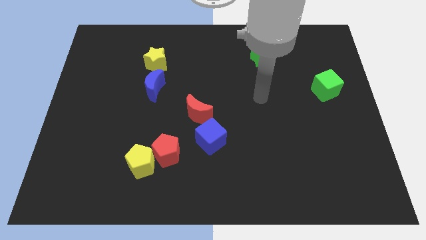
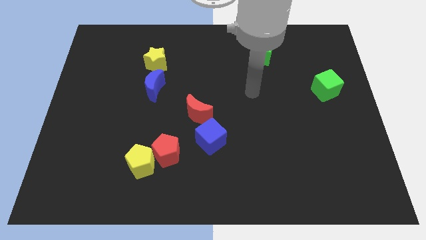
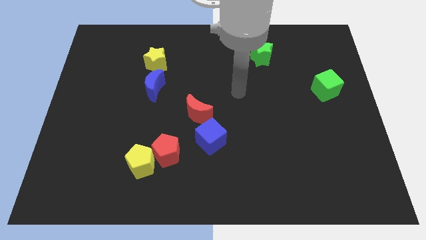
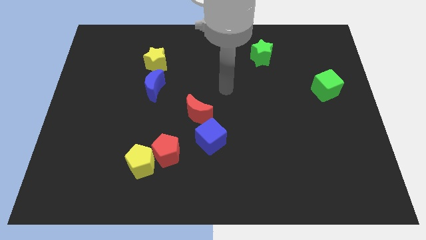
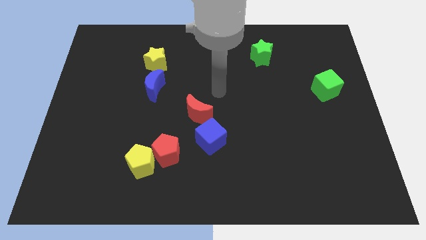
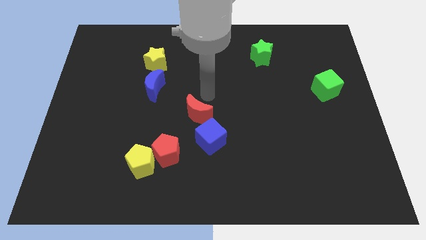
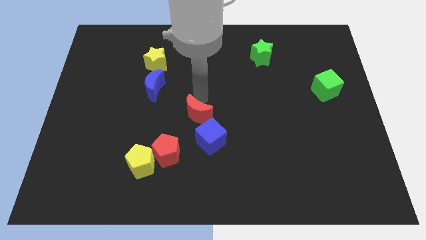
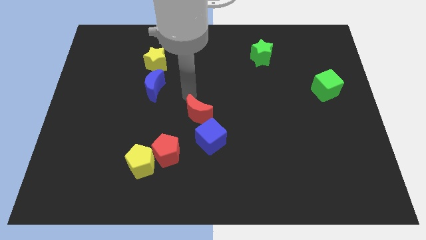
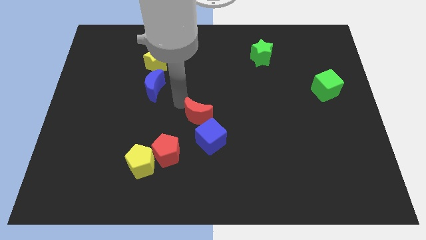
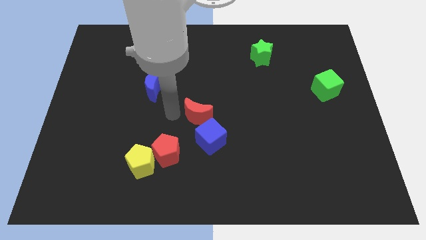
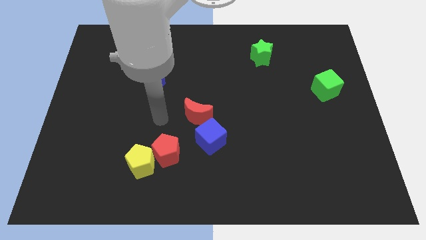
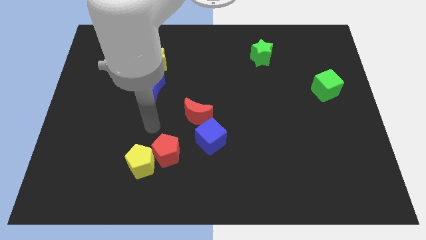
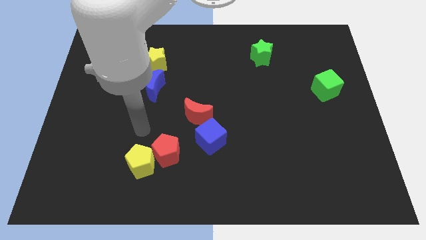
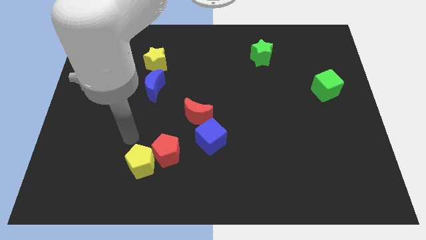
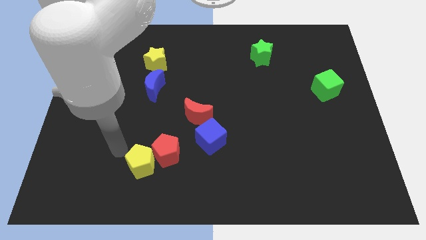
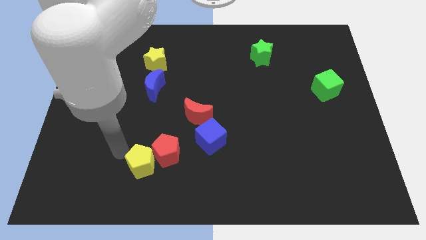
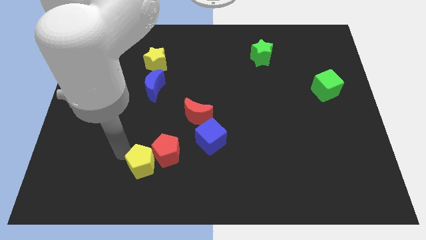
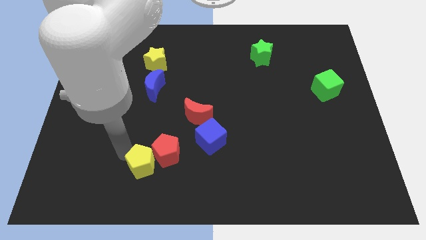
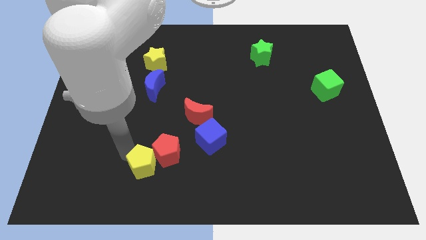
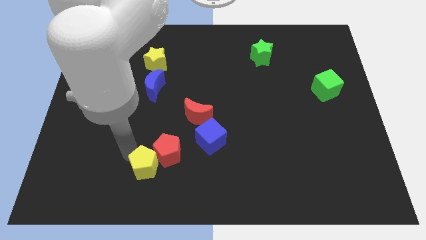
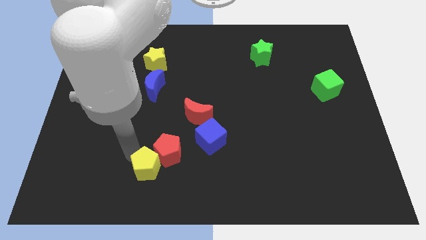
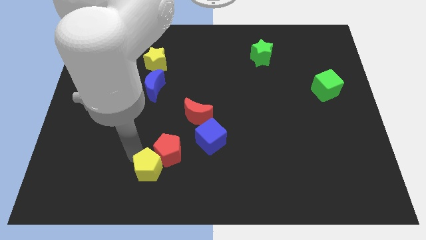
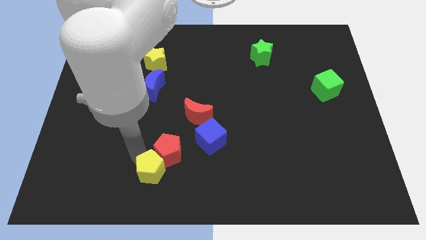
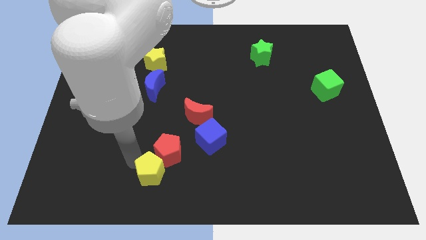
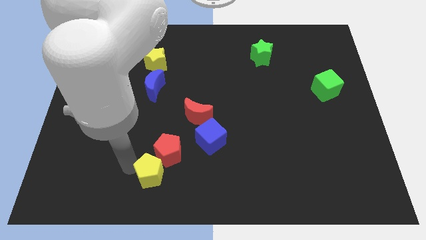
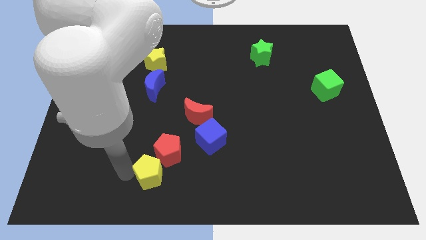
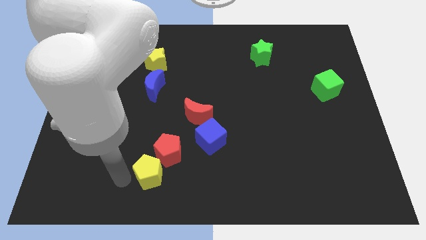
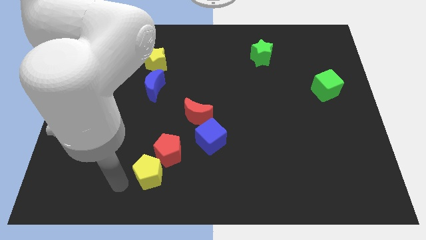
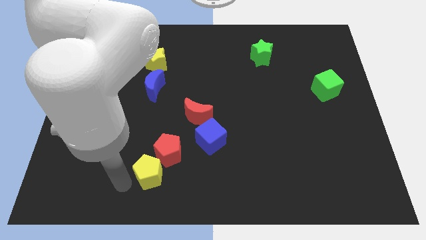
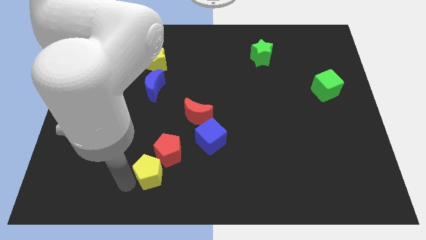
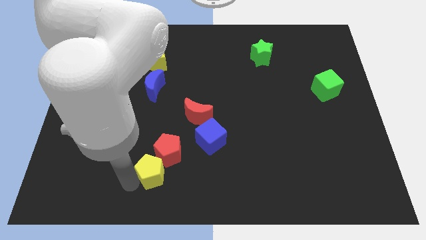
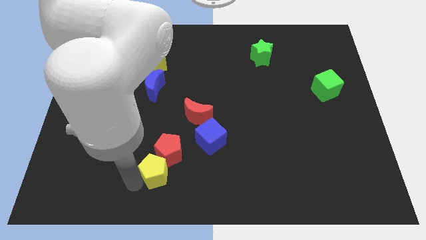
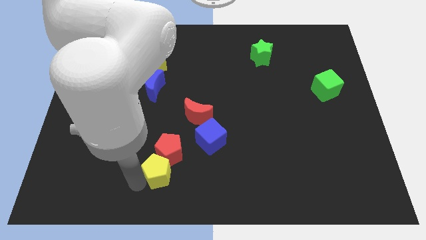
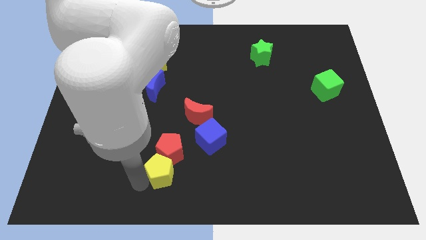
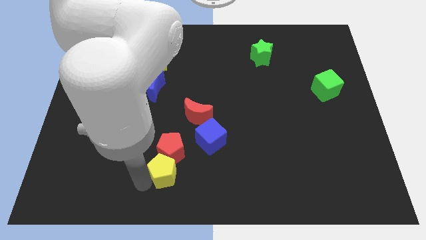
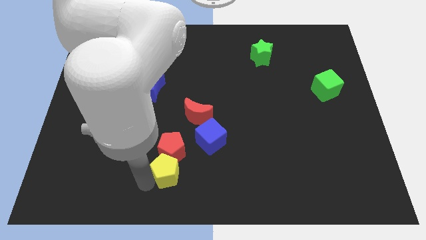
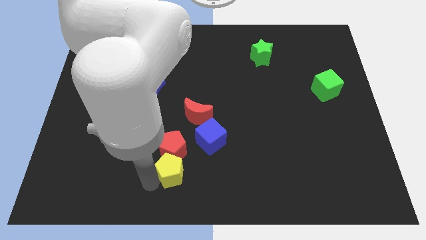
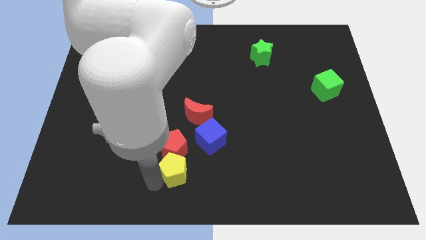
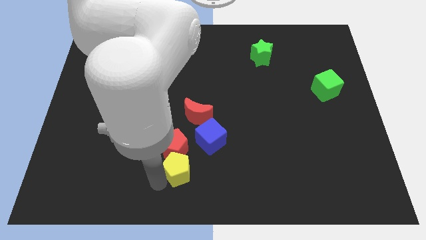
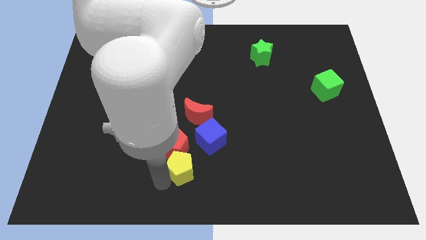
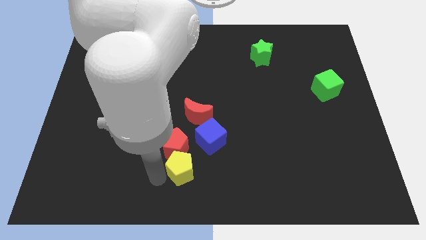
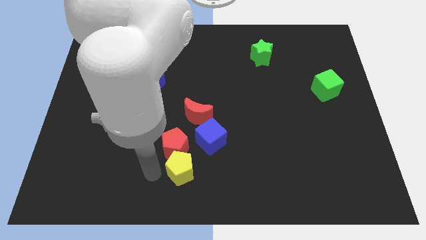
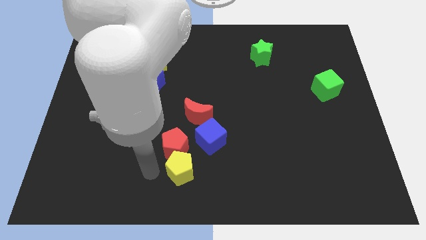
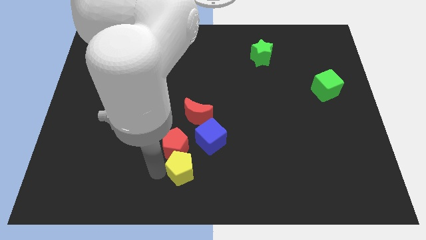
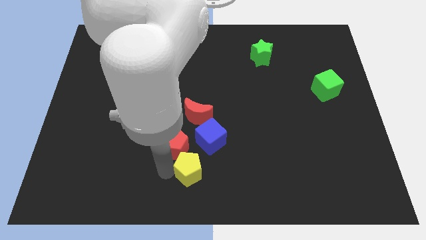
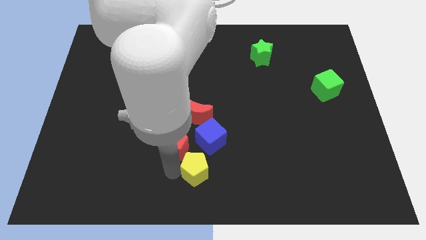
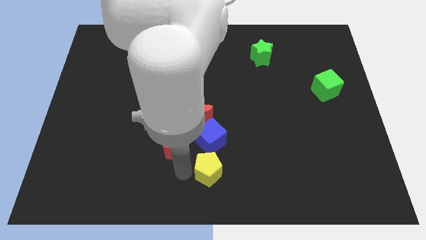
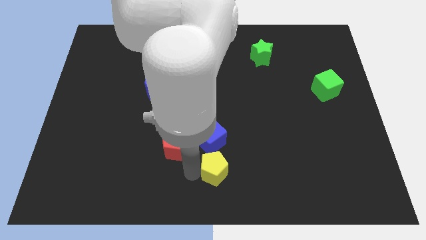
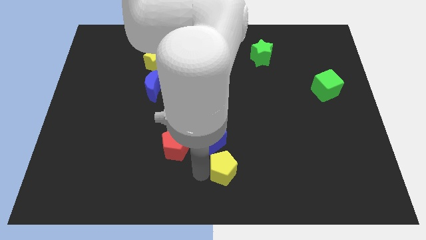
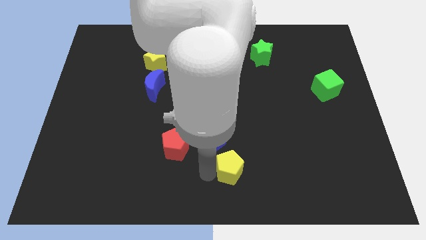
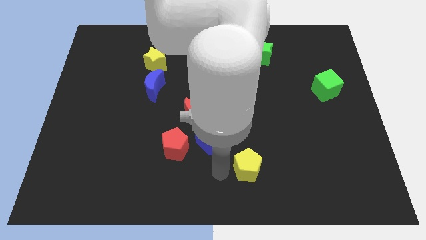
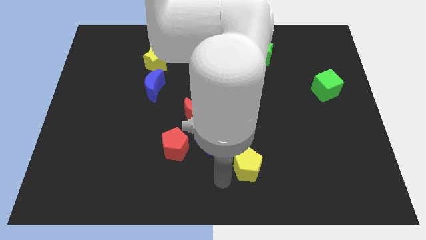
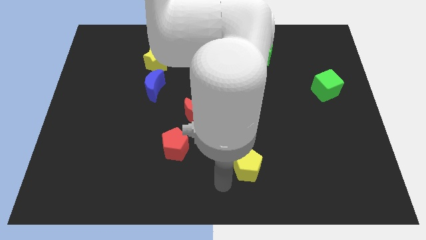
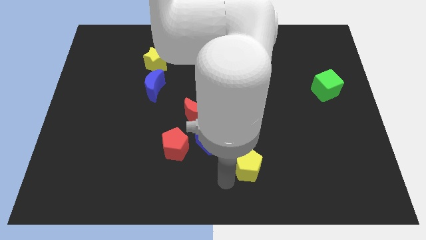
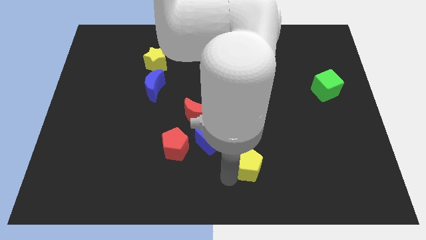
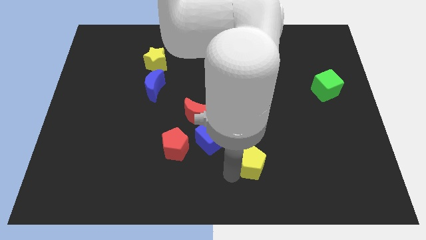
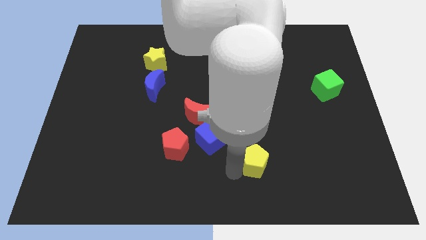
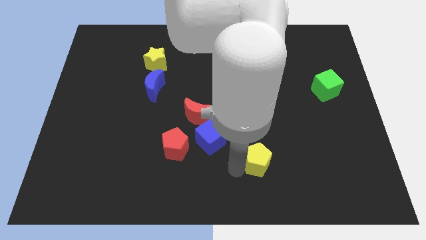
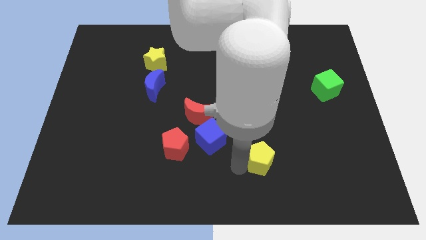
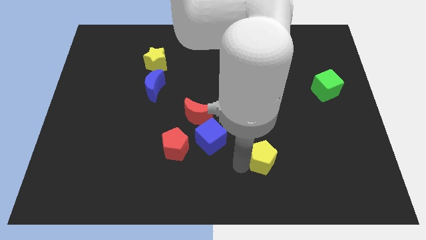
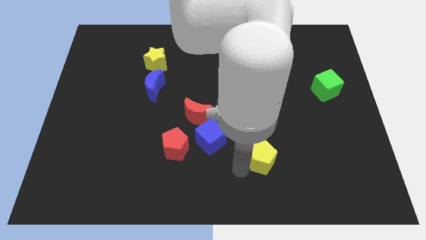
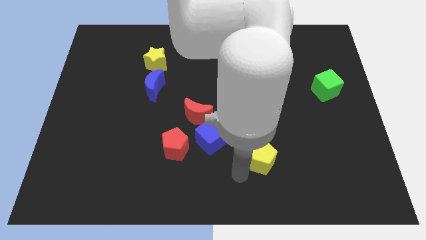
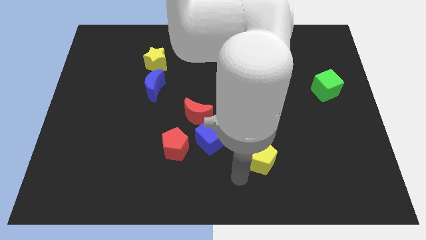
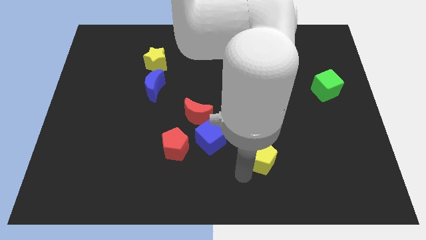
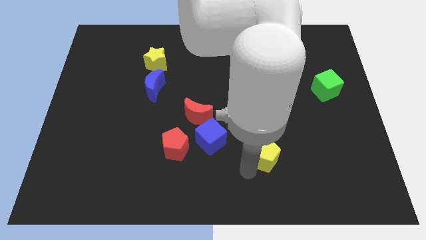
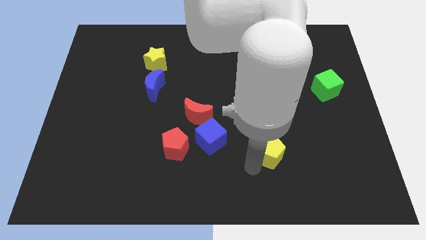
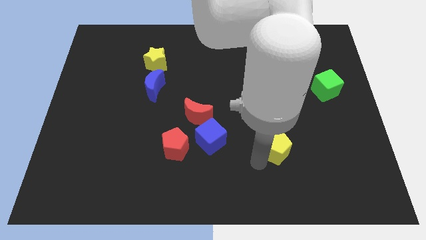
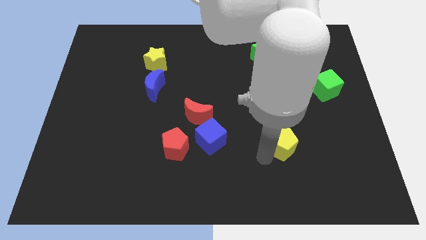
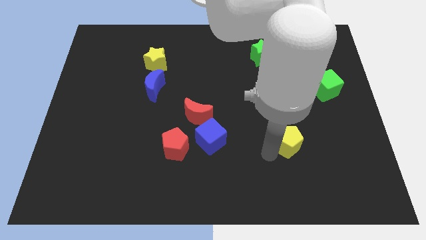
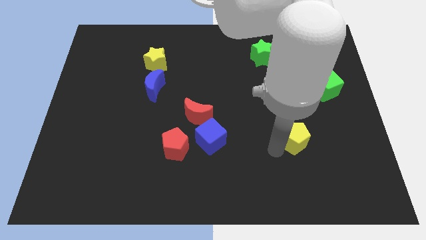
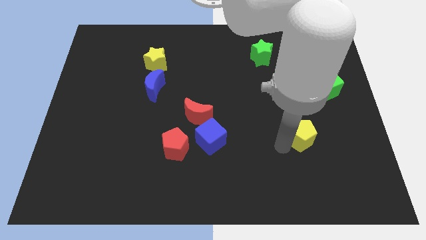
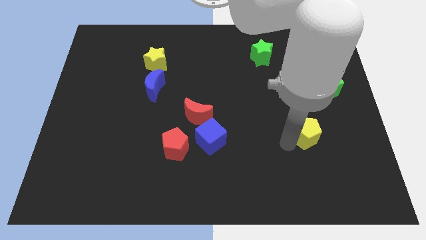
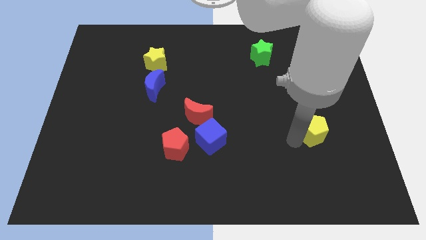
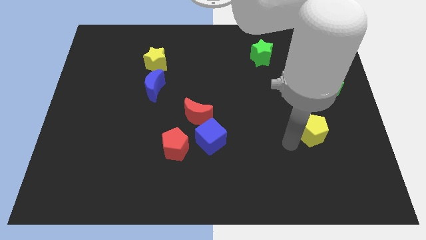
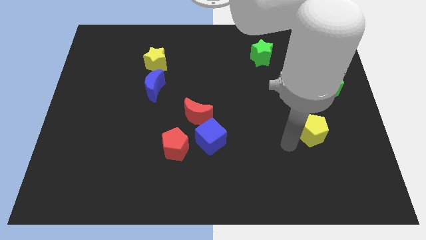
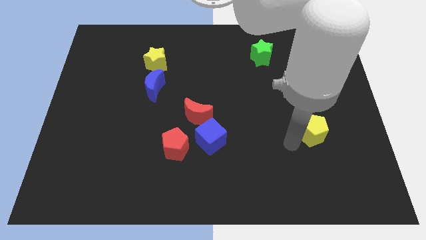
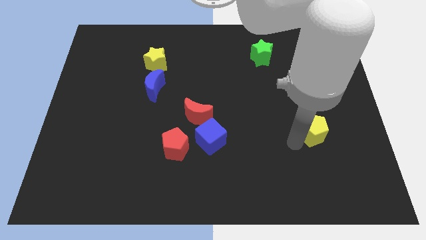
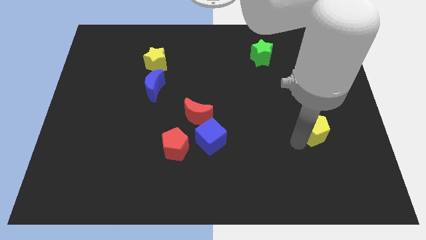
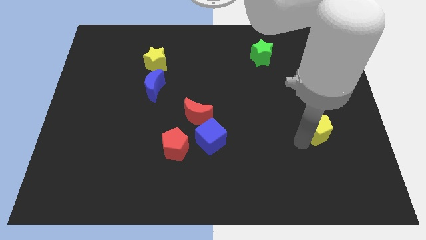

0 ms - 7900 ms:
put the yellow pentagon below the green cube
